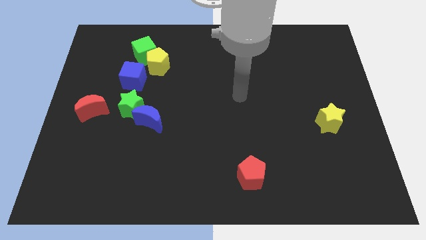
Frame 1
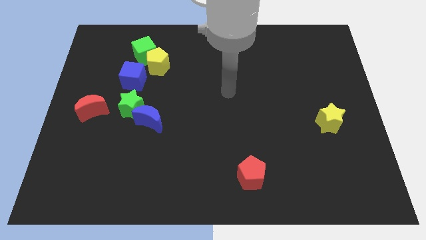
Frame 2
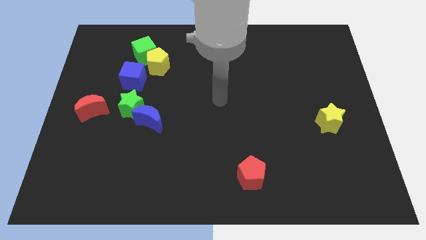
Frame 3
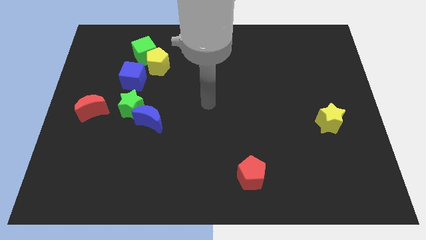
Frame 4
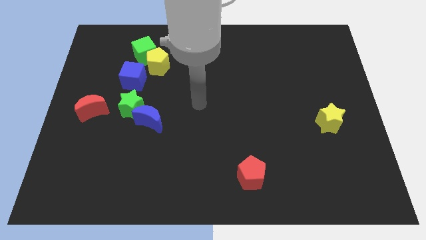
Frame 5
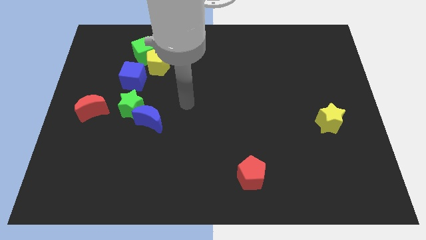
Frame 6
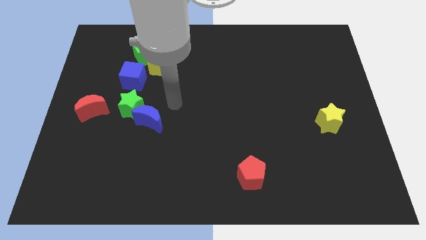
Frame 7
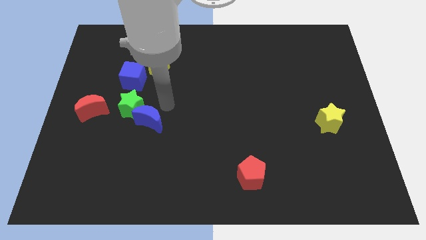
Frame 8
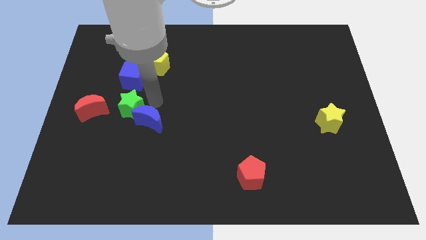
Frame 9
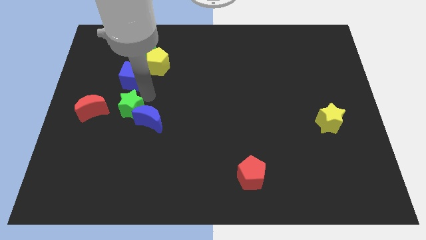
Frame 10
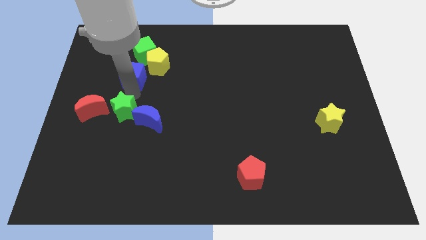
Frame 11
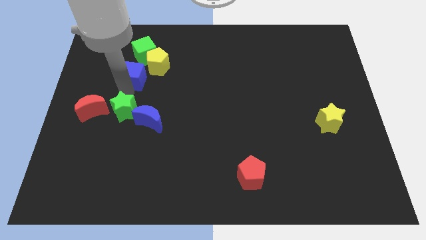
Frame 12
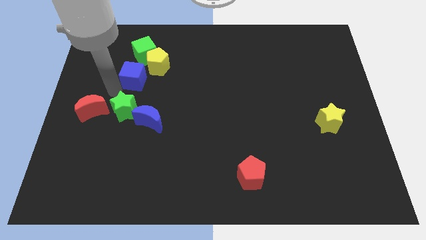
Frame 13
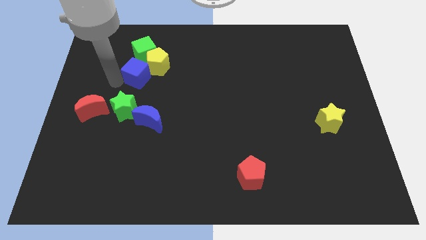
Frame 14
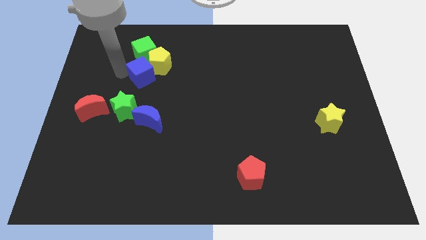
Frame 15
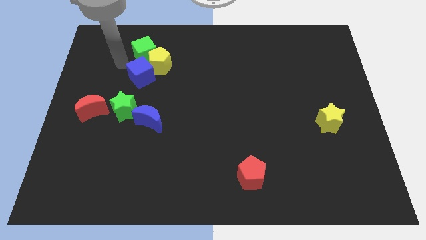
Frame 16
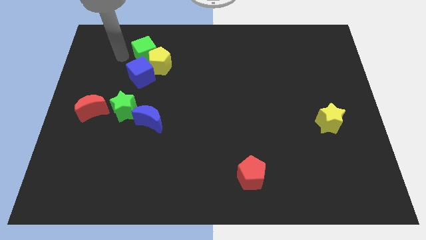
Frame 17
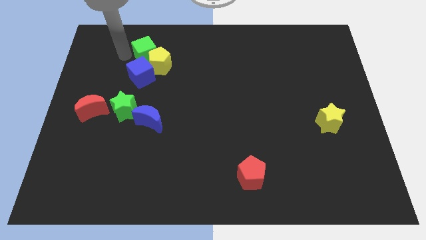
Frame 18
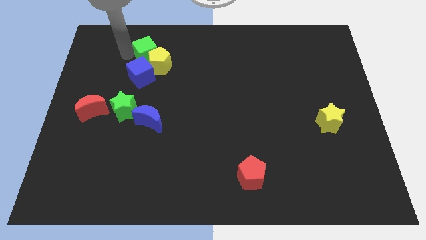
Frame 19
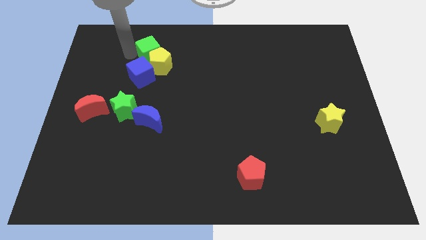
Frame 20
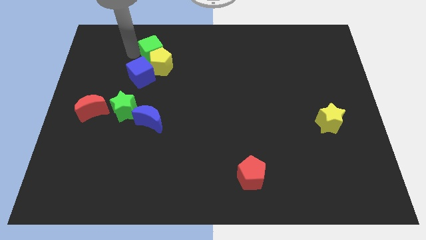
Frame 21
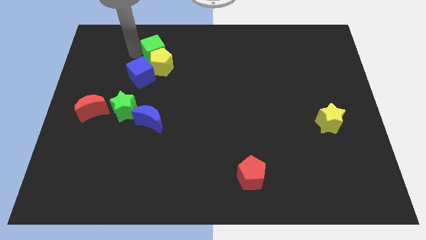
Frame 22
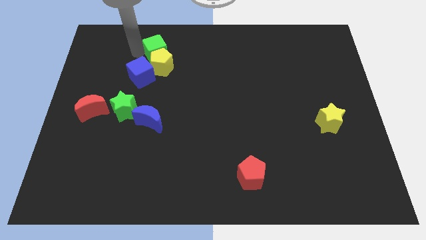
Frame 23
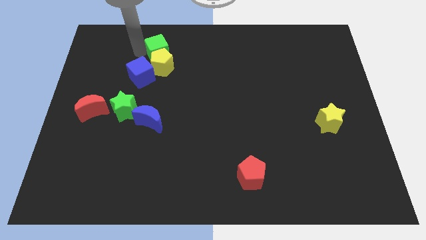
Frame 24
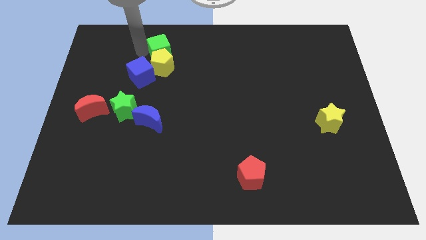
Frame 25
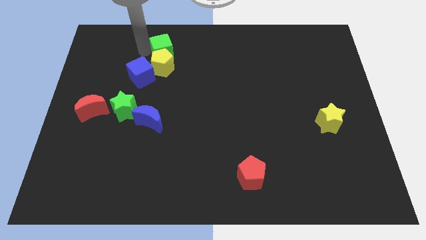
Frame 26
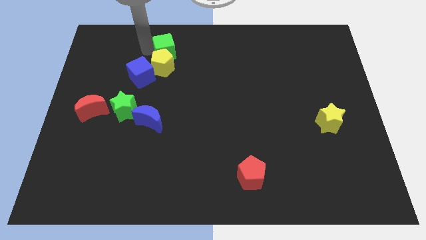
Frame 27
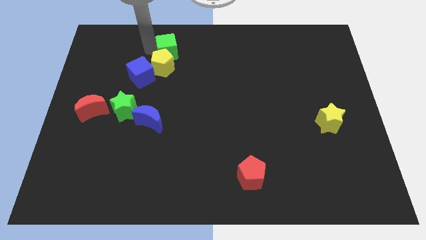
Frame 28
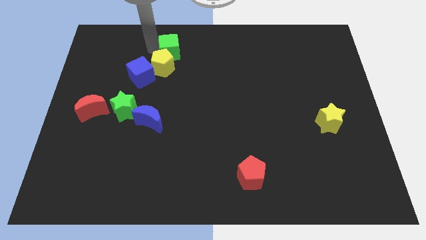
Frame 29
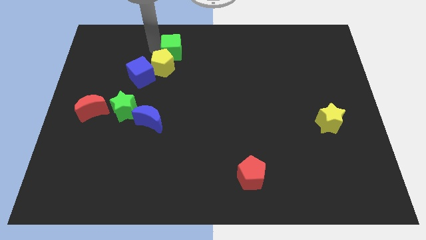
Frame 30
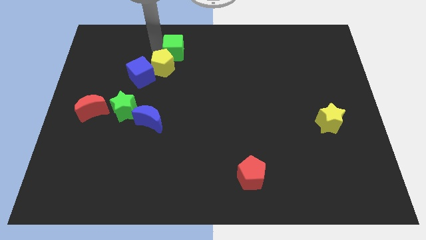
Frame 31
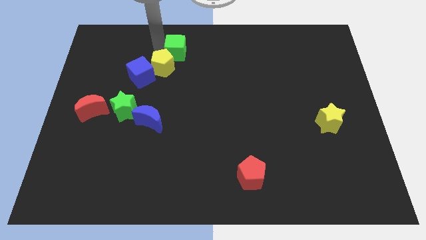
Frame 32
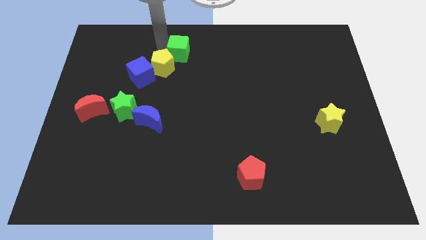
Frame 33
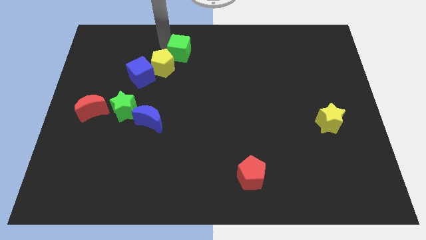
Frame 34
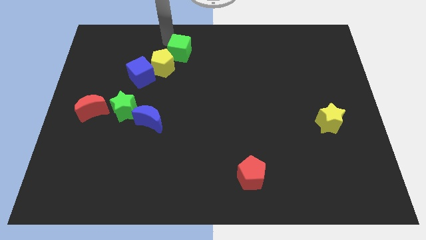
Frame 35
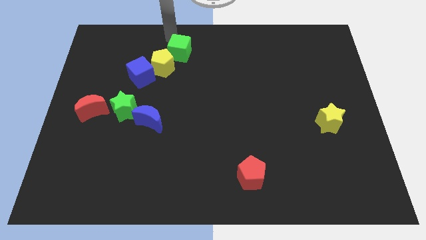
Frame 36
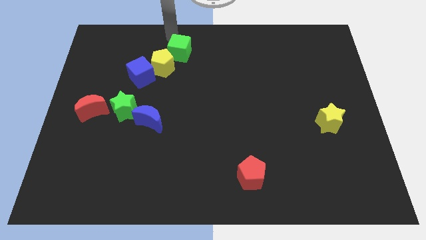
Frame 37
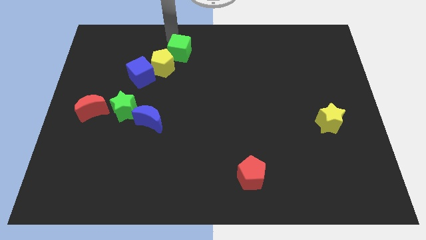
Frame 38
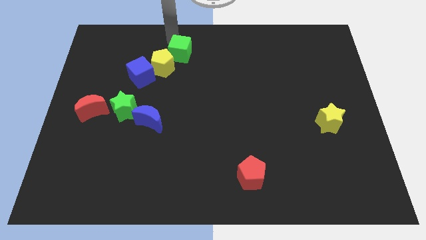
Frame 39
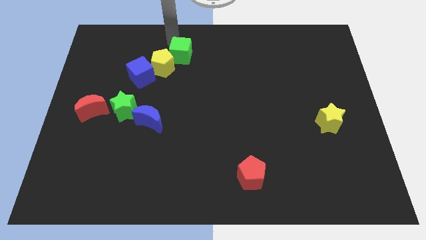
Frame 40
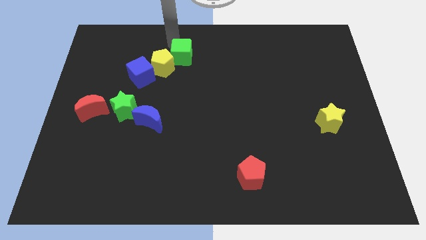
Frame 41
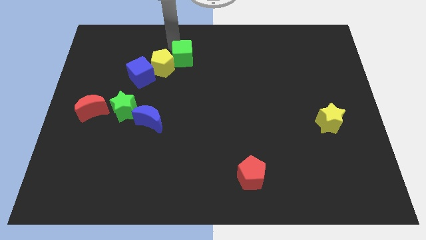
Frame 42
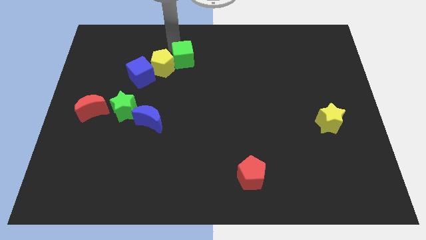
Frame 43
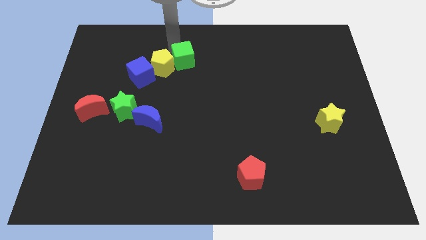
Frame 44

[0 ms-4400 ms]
slide the green cube a little bit down and right diagonally

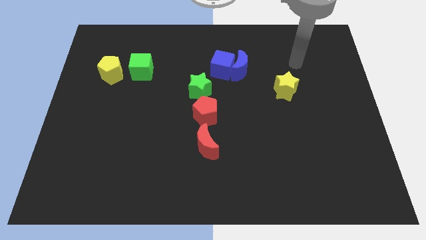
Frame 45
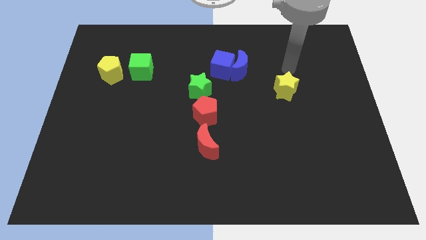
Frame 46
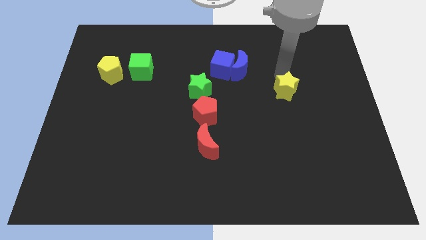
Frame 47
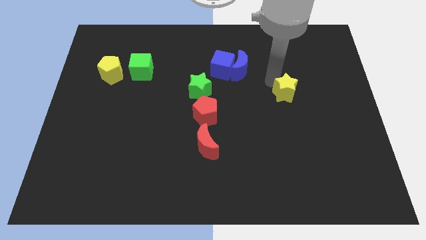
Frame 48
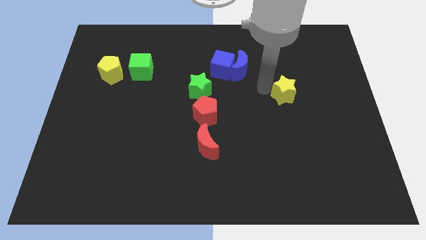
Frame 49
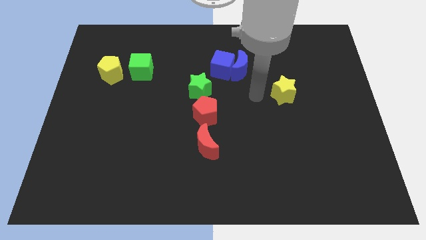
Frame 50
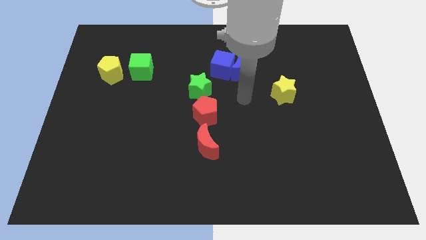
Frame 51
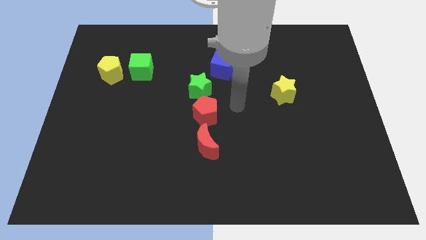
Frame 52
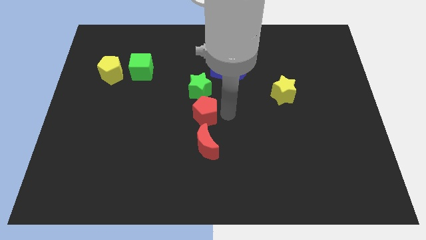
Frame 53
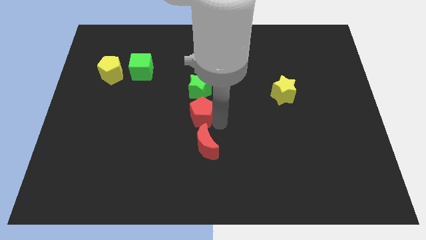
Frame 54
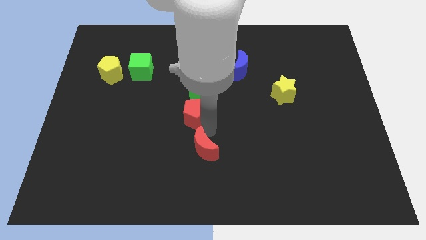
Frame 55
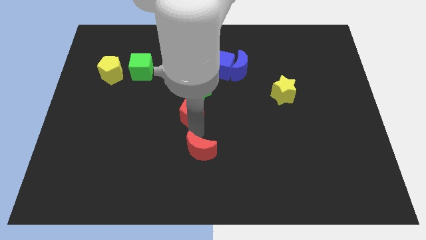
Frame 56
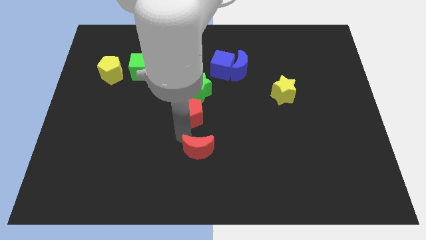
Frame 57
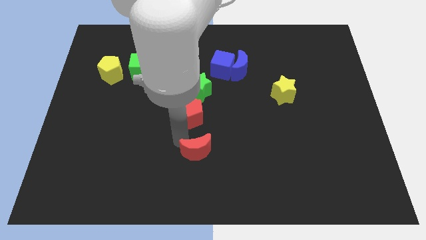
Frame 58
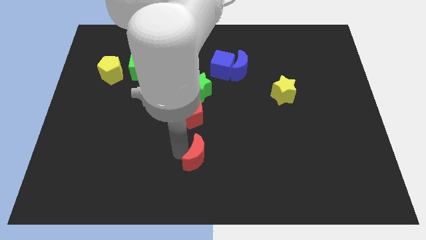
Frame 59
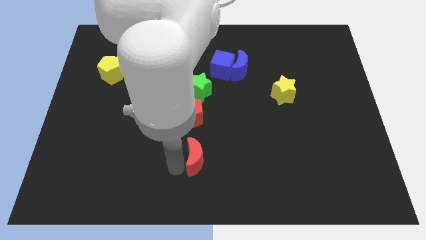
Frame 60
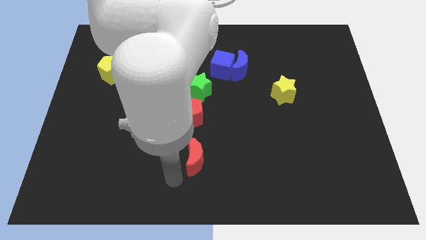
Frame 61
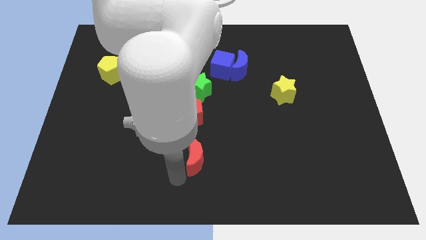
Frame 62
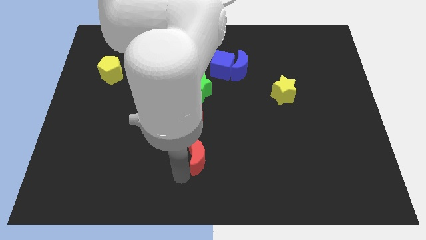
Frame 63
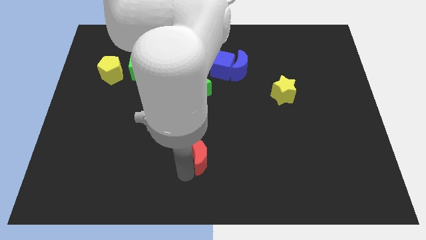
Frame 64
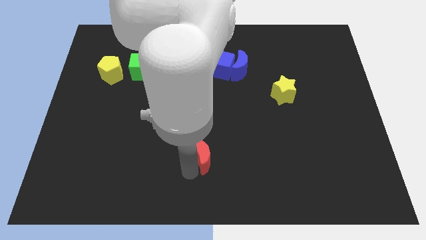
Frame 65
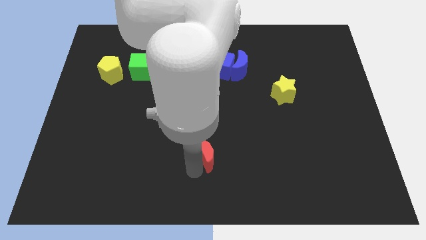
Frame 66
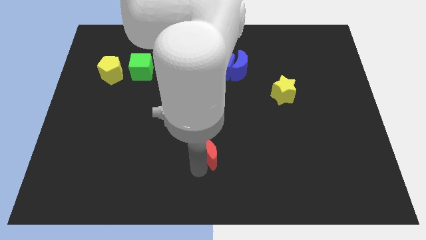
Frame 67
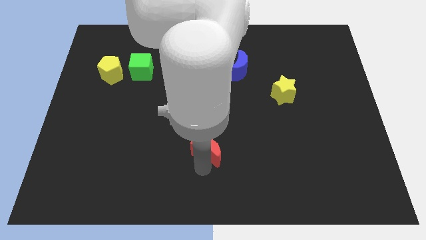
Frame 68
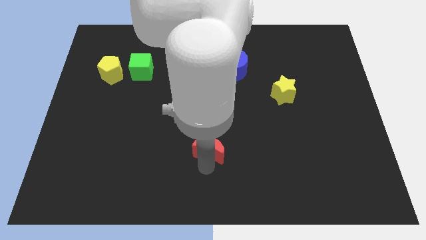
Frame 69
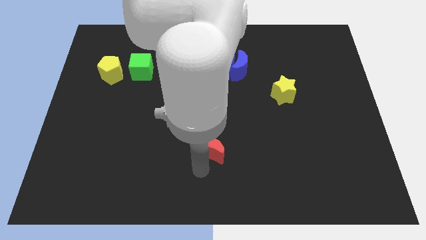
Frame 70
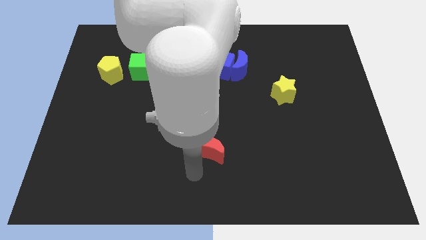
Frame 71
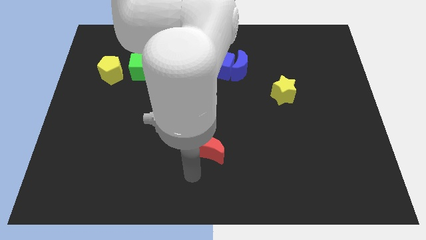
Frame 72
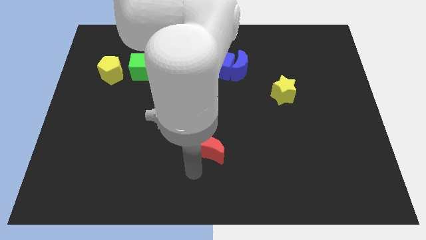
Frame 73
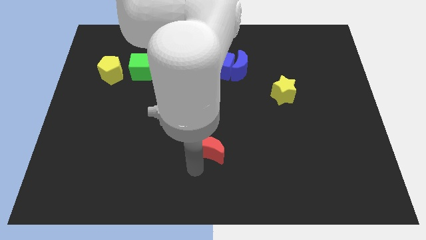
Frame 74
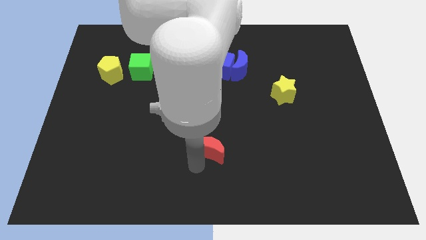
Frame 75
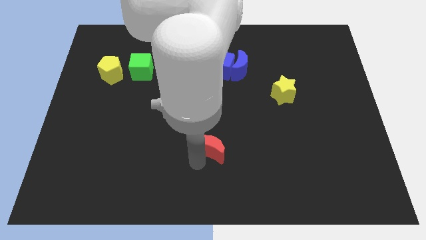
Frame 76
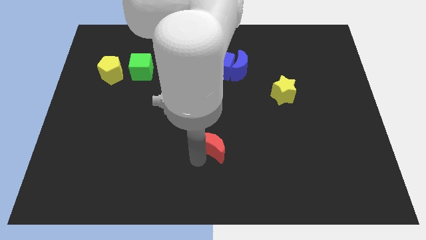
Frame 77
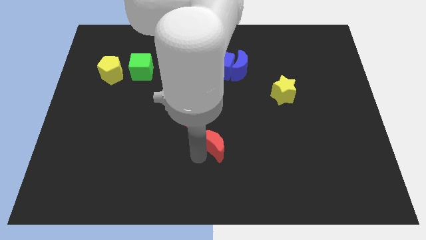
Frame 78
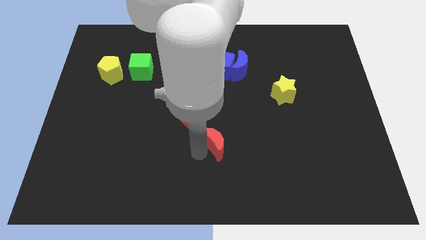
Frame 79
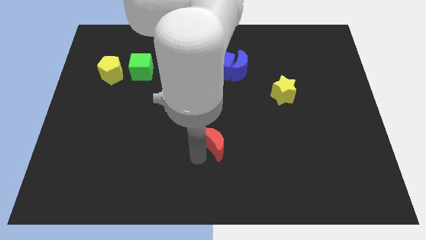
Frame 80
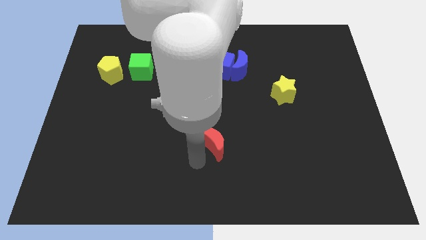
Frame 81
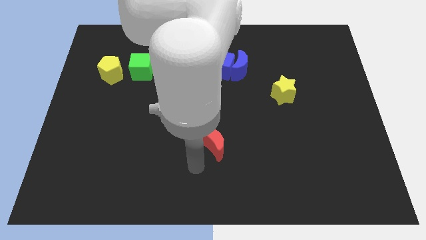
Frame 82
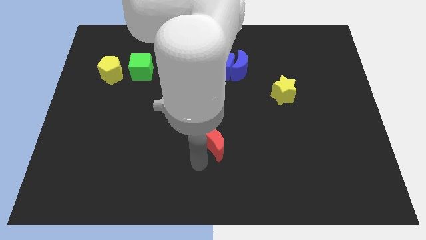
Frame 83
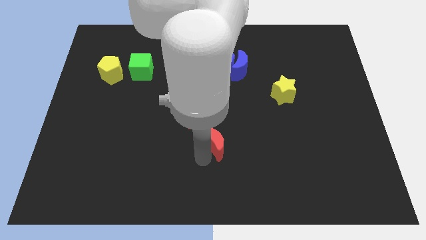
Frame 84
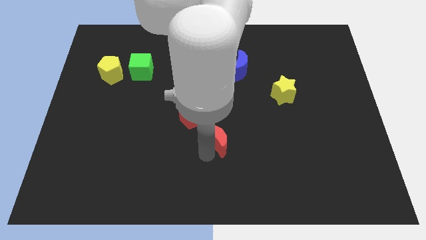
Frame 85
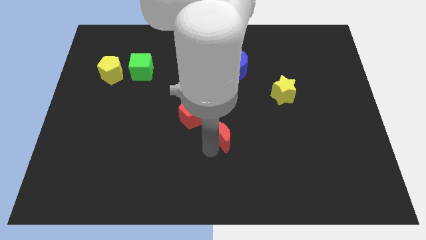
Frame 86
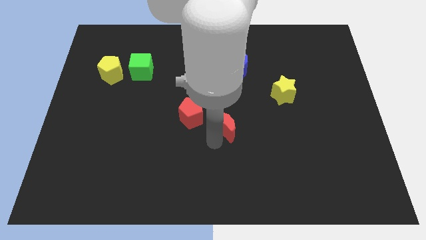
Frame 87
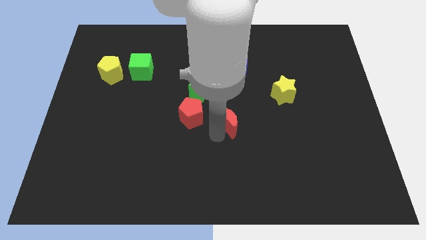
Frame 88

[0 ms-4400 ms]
slightly move the red moon upwards and right diagonally
